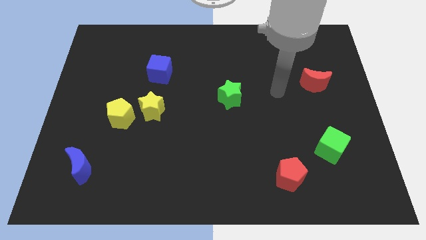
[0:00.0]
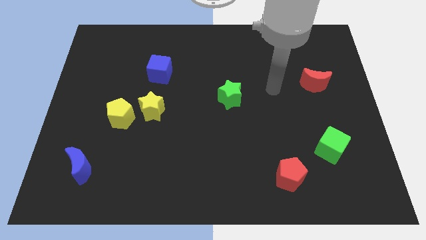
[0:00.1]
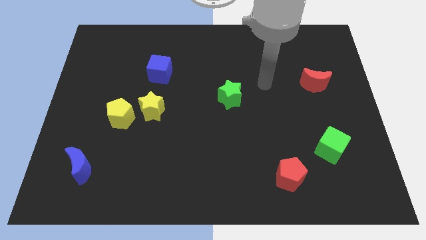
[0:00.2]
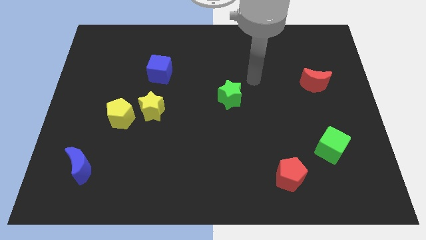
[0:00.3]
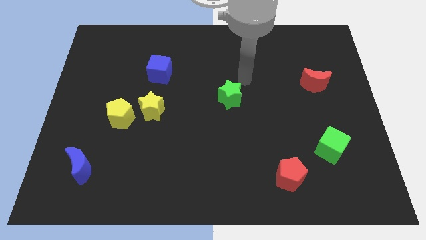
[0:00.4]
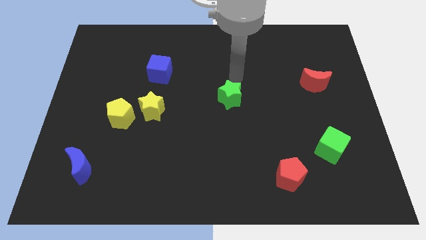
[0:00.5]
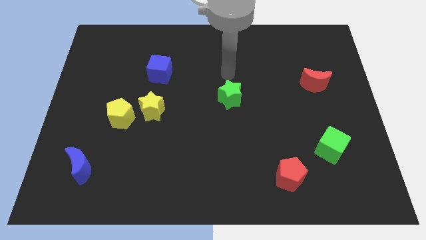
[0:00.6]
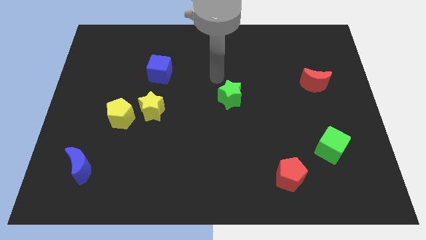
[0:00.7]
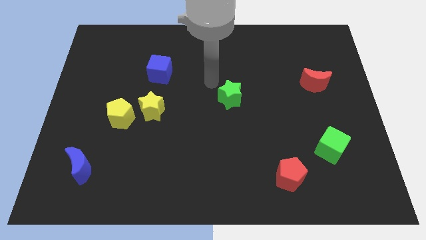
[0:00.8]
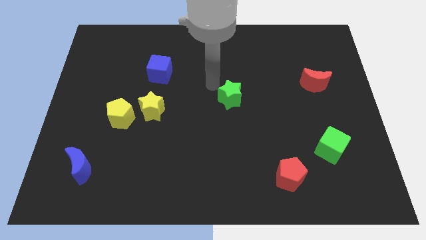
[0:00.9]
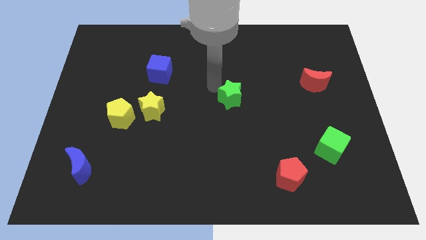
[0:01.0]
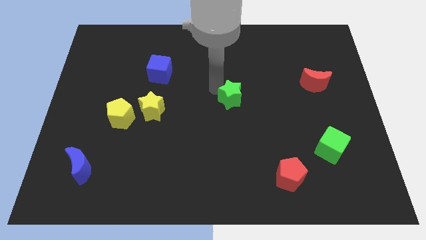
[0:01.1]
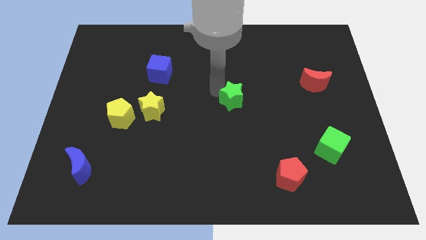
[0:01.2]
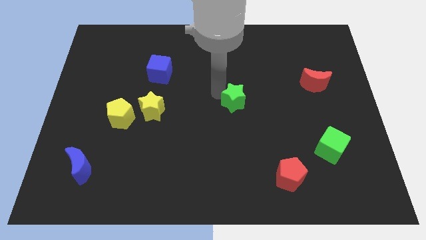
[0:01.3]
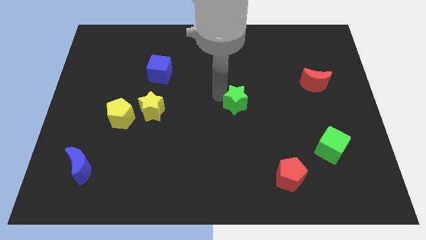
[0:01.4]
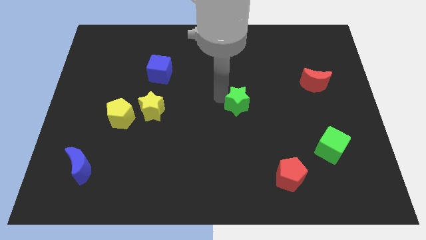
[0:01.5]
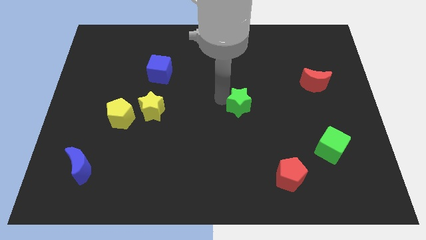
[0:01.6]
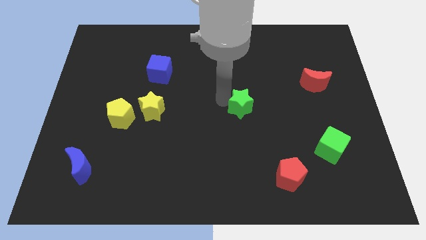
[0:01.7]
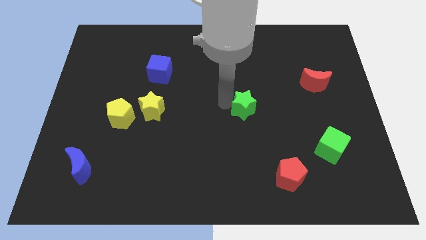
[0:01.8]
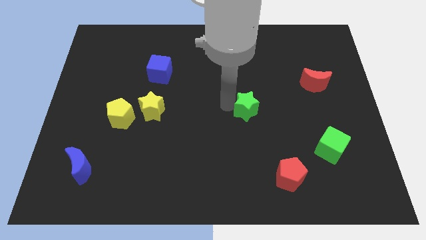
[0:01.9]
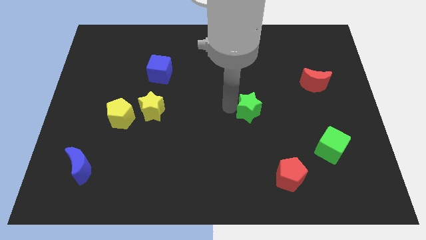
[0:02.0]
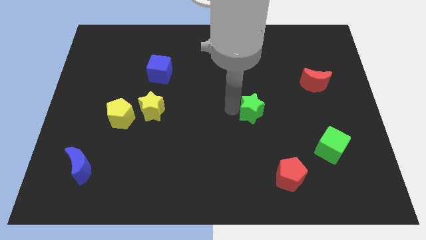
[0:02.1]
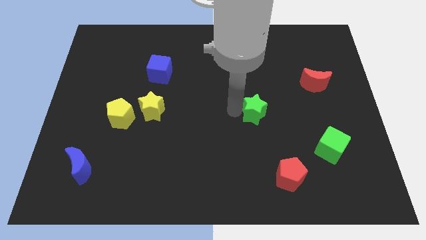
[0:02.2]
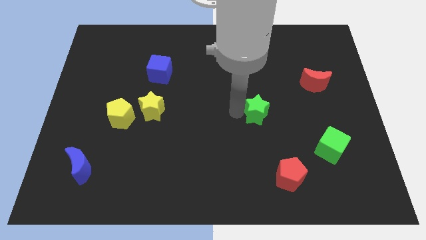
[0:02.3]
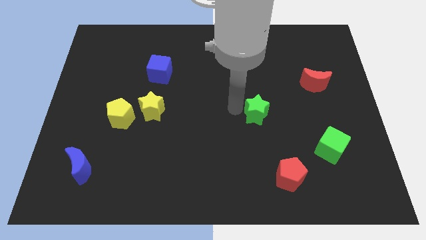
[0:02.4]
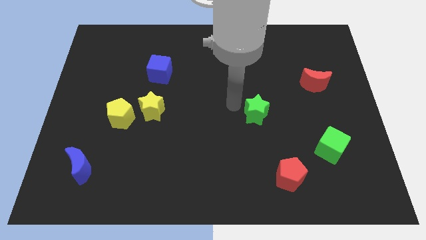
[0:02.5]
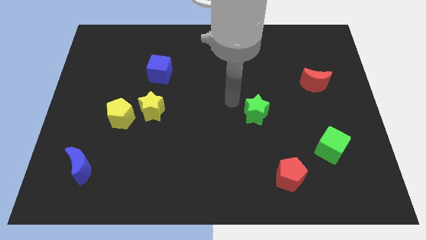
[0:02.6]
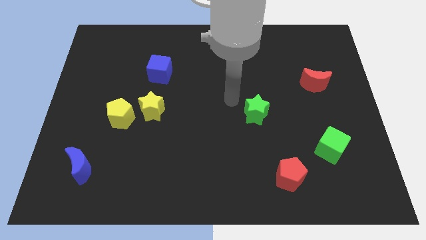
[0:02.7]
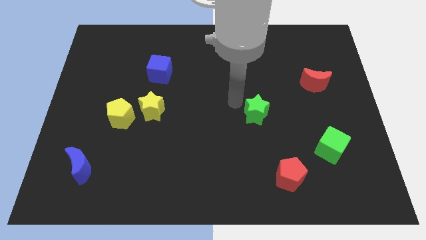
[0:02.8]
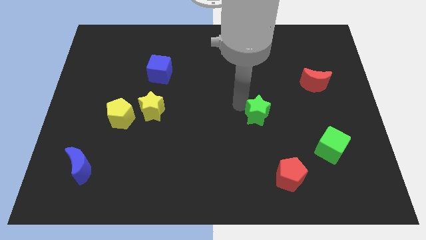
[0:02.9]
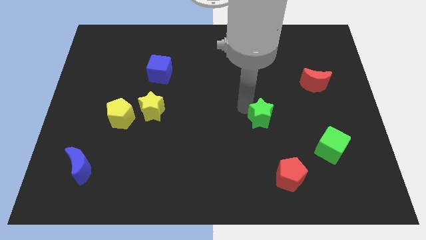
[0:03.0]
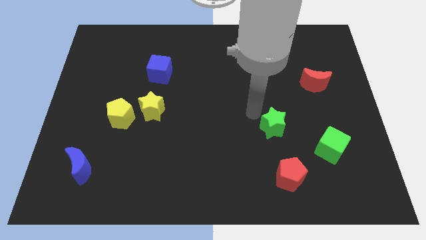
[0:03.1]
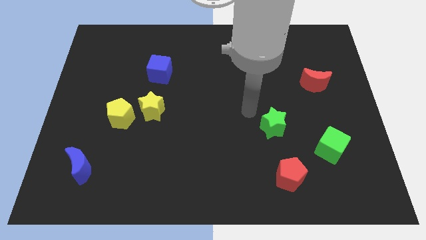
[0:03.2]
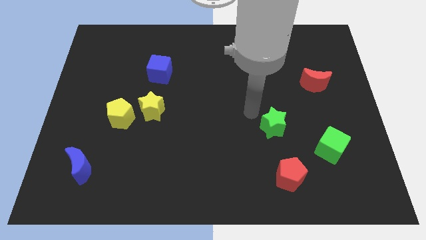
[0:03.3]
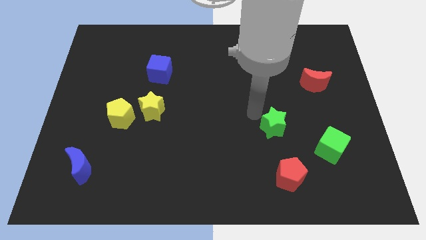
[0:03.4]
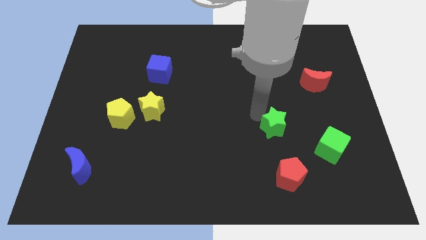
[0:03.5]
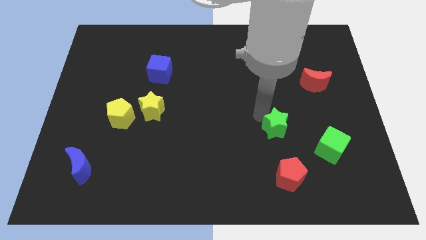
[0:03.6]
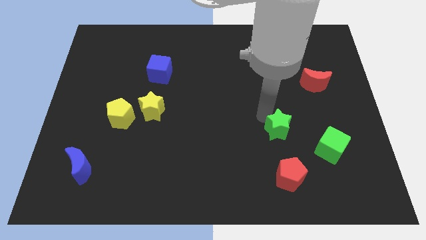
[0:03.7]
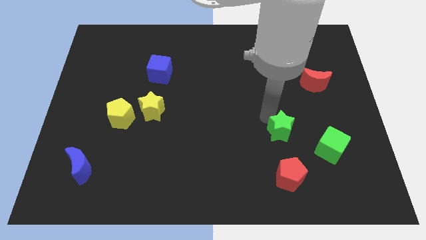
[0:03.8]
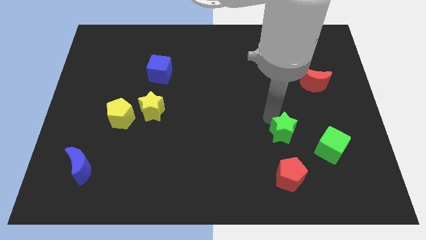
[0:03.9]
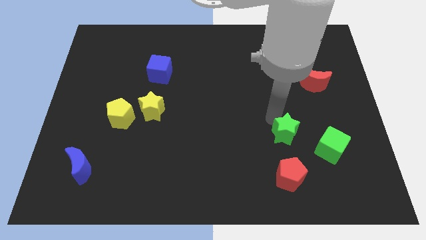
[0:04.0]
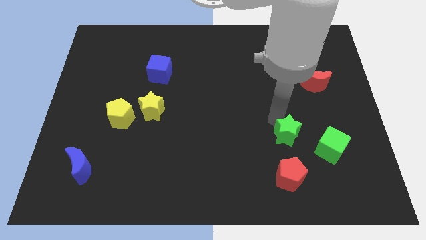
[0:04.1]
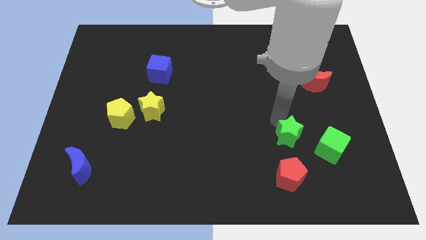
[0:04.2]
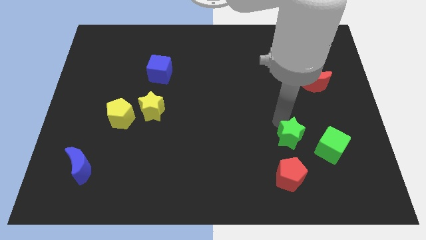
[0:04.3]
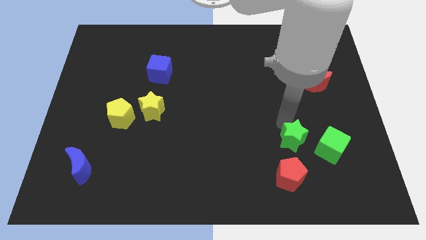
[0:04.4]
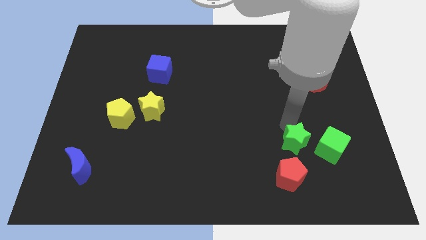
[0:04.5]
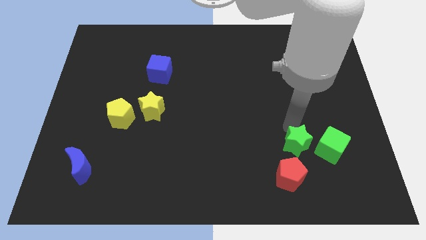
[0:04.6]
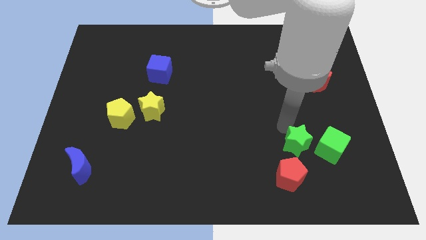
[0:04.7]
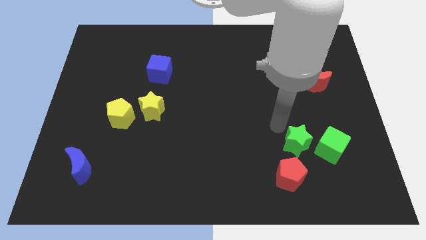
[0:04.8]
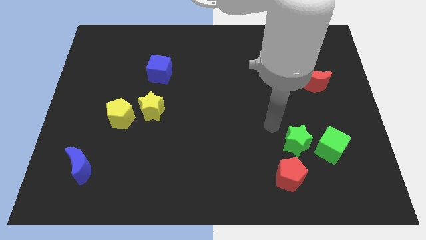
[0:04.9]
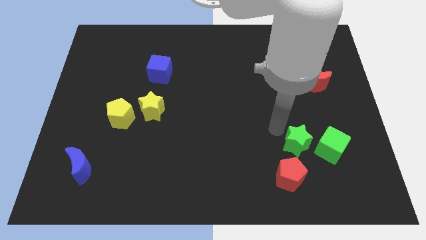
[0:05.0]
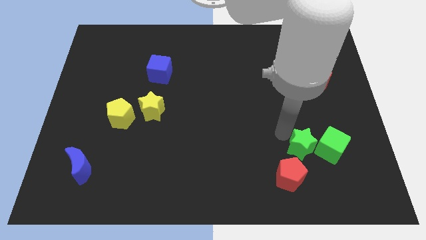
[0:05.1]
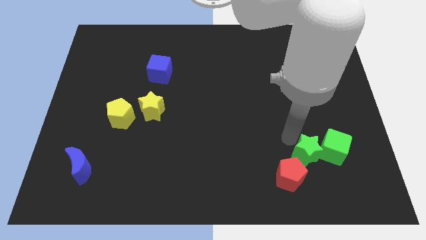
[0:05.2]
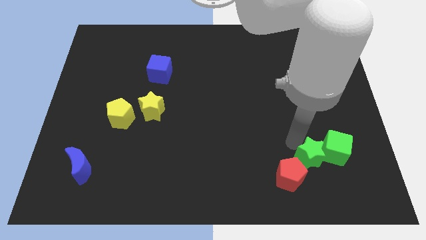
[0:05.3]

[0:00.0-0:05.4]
push the green star just right of the red pentagon

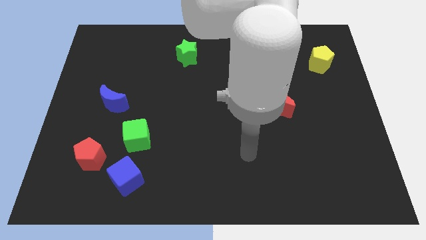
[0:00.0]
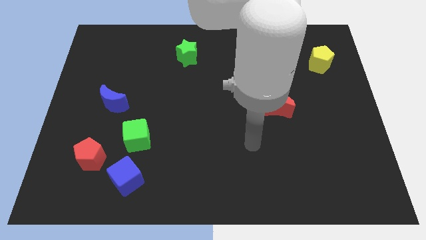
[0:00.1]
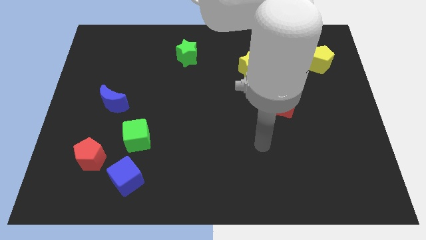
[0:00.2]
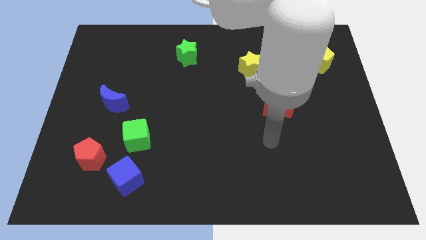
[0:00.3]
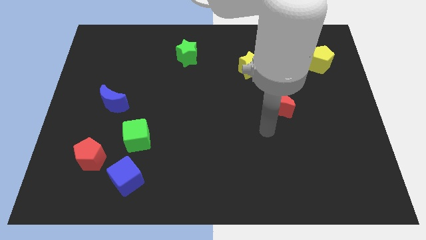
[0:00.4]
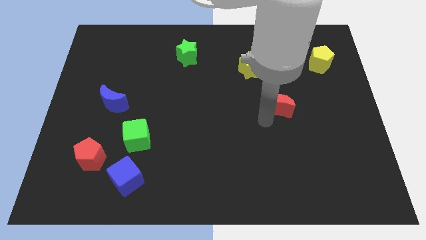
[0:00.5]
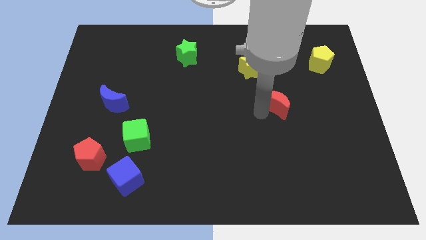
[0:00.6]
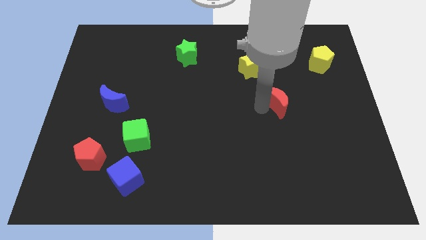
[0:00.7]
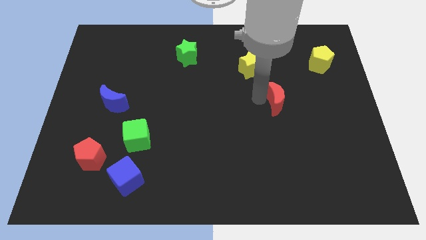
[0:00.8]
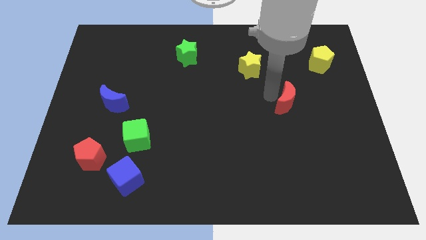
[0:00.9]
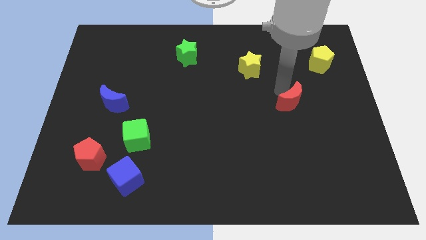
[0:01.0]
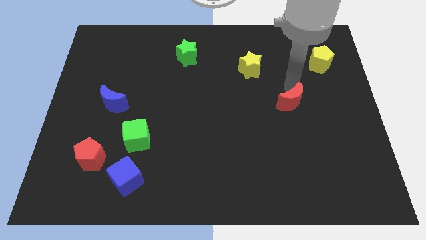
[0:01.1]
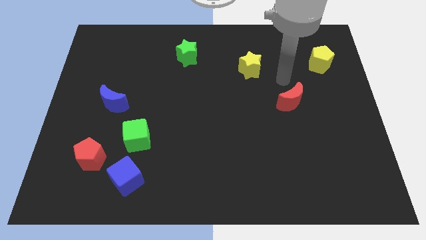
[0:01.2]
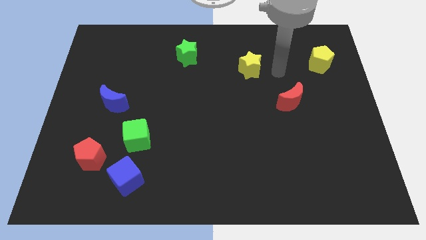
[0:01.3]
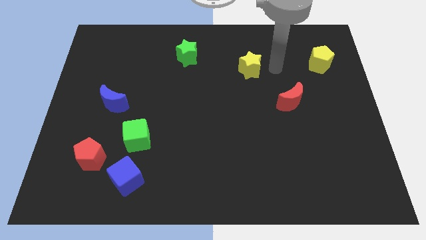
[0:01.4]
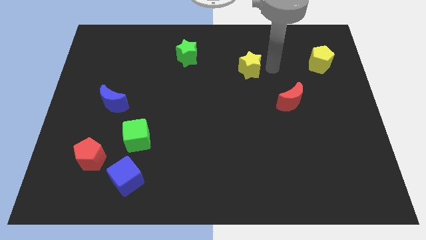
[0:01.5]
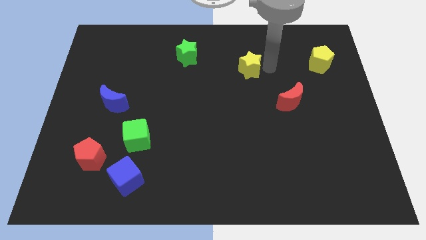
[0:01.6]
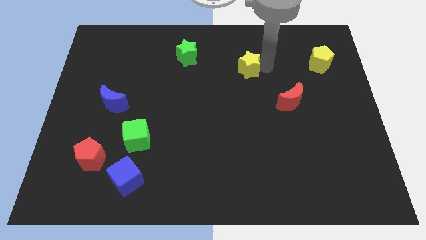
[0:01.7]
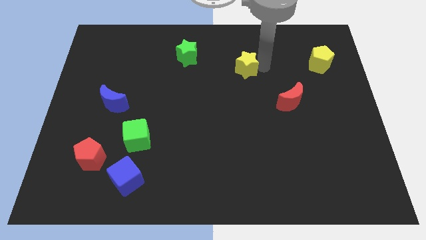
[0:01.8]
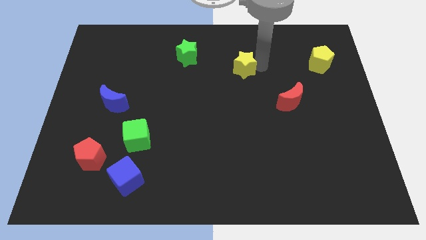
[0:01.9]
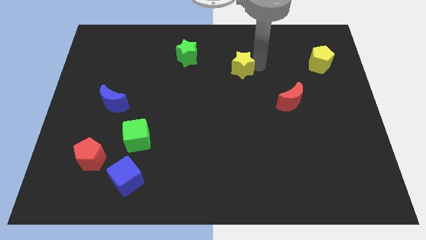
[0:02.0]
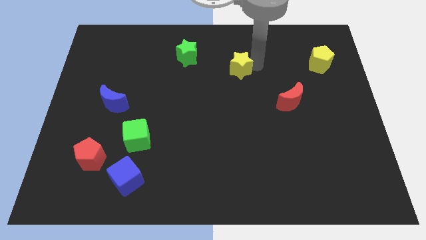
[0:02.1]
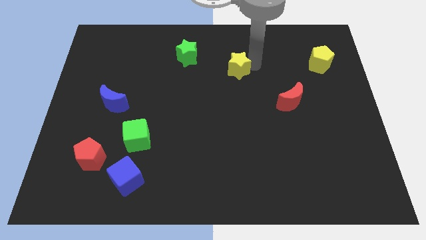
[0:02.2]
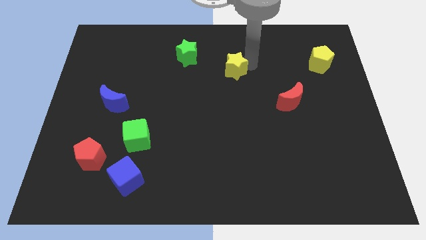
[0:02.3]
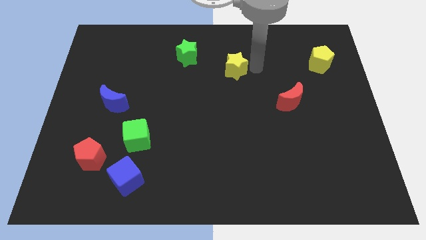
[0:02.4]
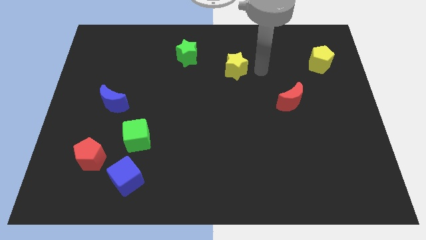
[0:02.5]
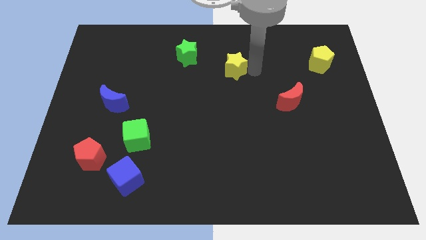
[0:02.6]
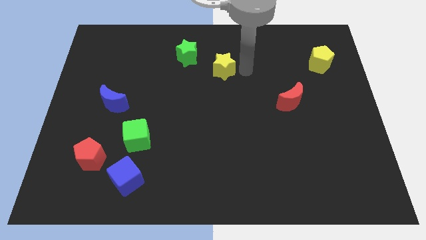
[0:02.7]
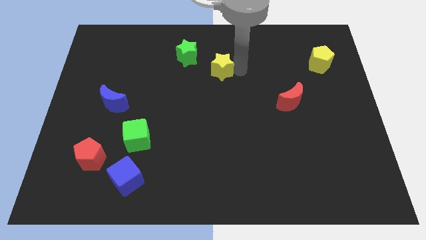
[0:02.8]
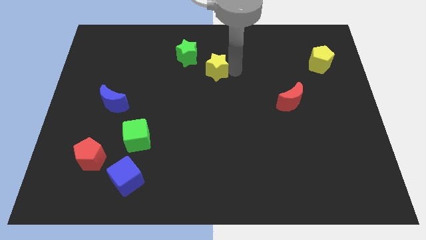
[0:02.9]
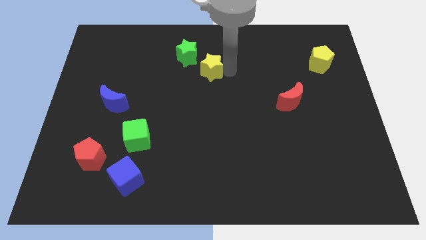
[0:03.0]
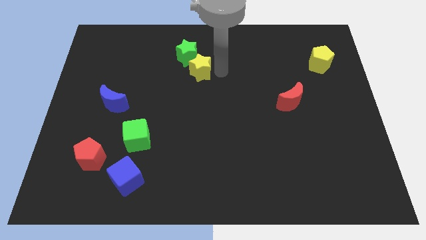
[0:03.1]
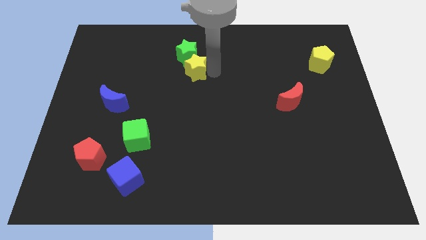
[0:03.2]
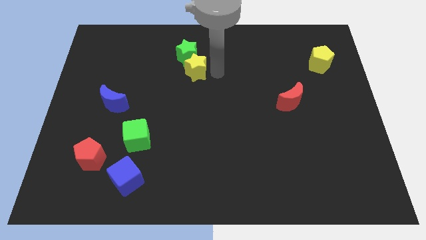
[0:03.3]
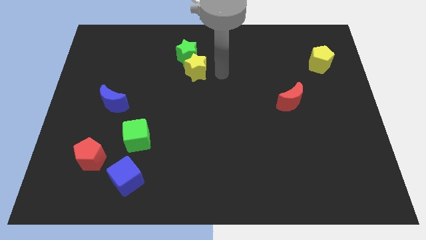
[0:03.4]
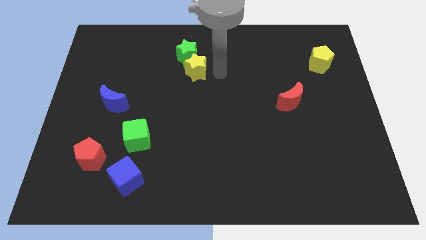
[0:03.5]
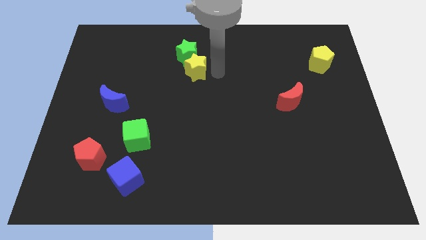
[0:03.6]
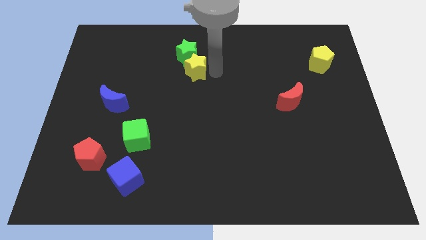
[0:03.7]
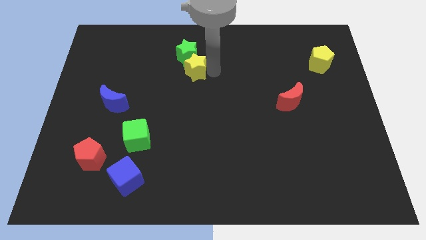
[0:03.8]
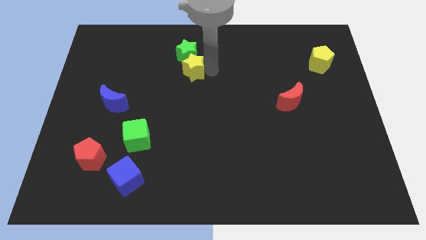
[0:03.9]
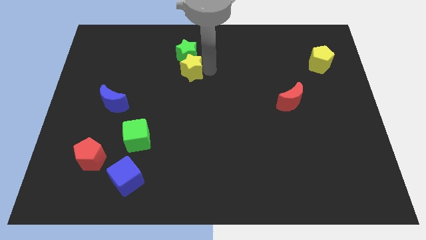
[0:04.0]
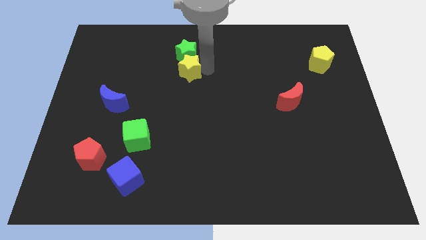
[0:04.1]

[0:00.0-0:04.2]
push the yellow star diagonally down and to the left of the green star
